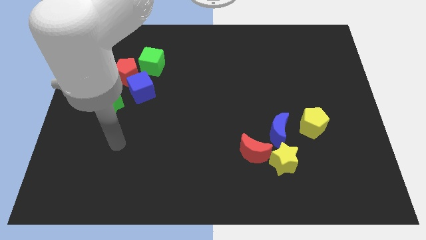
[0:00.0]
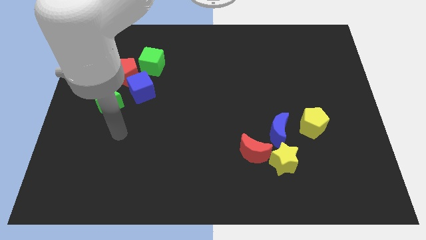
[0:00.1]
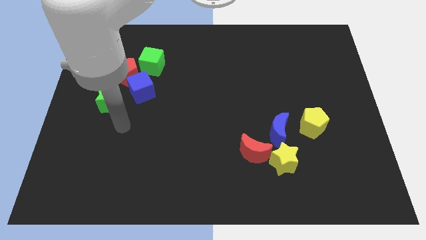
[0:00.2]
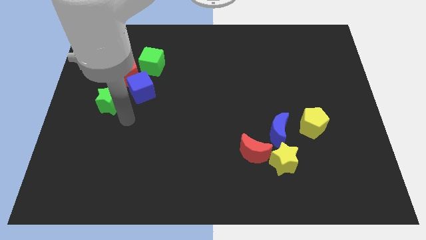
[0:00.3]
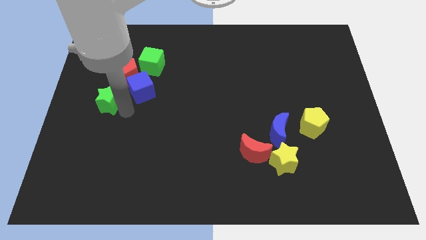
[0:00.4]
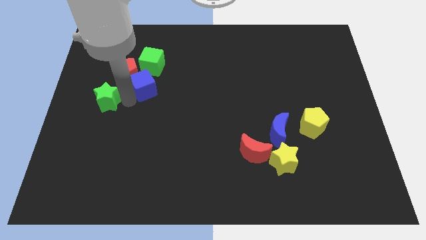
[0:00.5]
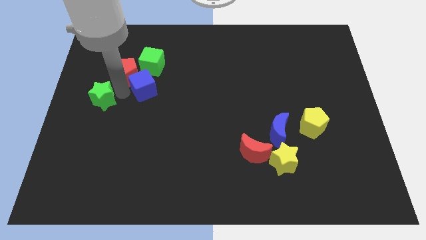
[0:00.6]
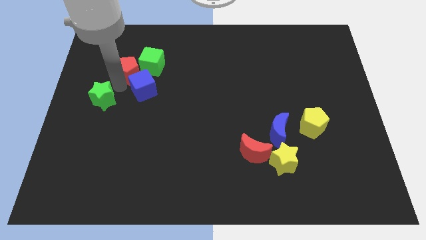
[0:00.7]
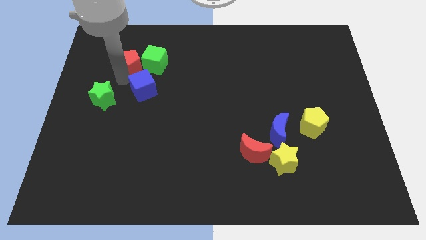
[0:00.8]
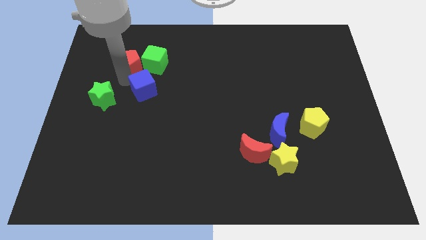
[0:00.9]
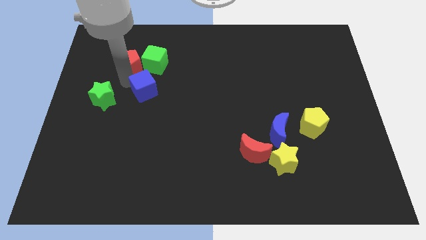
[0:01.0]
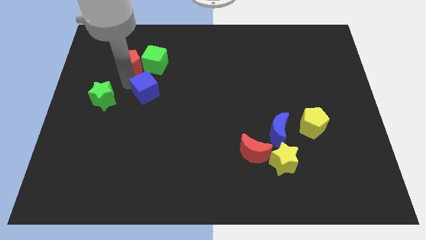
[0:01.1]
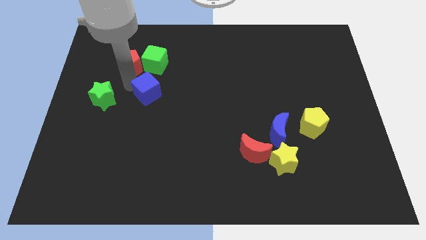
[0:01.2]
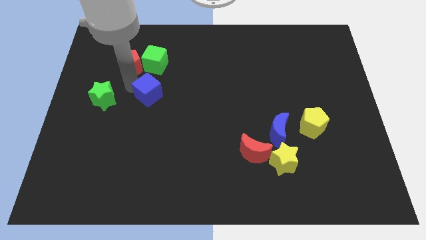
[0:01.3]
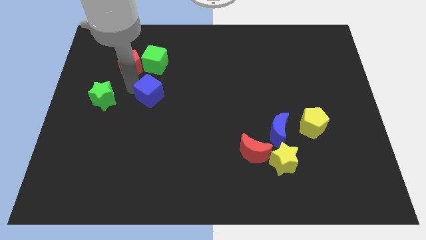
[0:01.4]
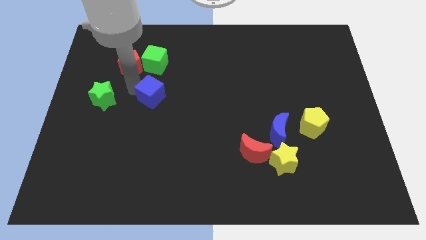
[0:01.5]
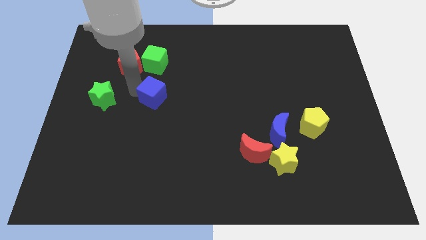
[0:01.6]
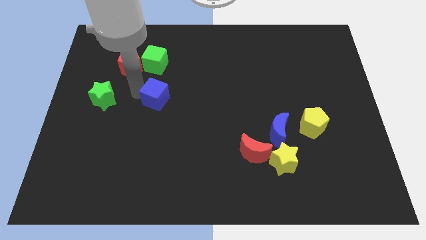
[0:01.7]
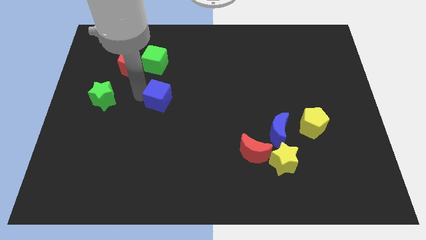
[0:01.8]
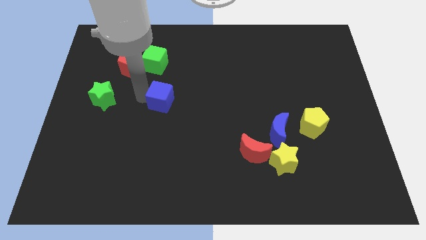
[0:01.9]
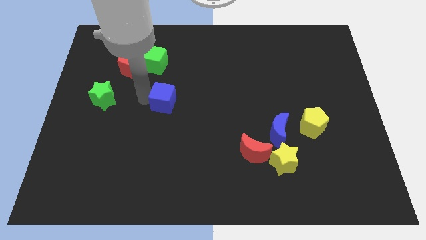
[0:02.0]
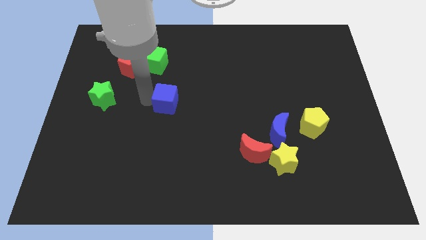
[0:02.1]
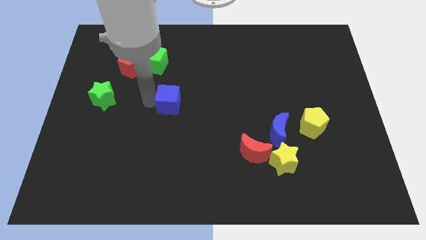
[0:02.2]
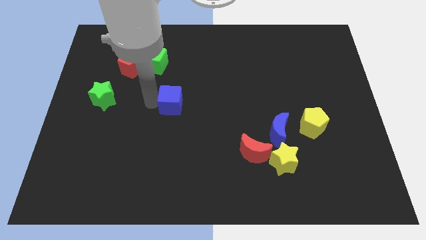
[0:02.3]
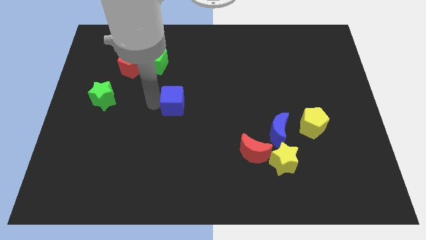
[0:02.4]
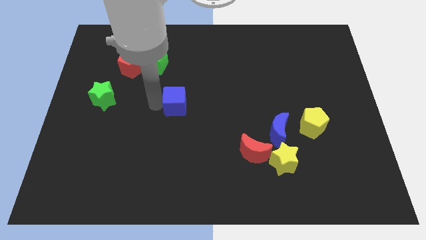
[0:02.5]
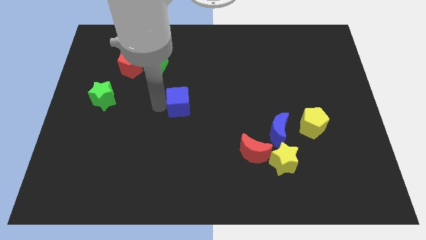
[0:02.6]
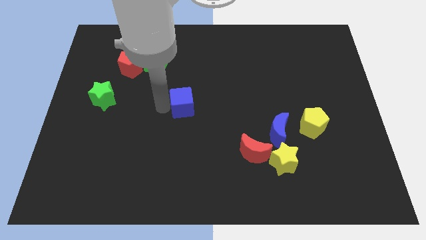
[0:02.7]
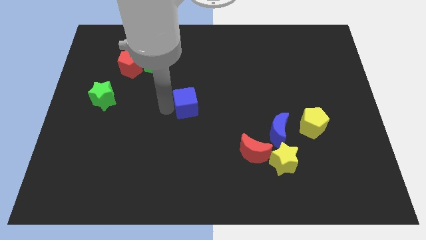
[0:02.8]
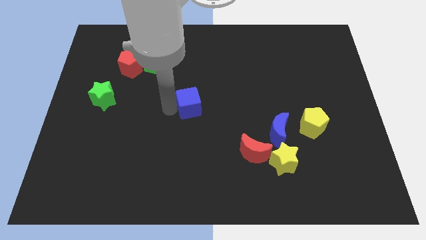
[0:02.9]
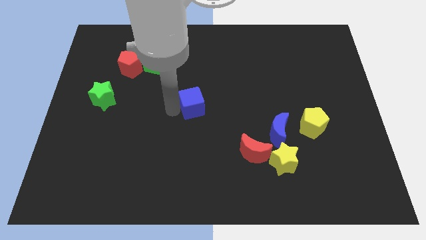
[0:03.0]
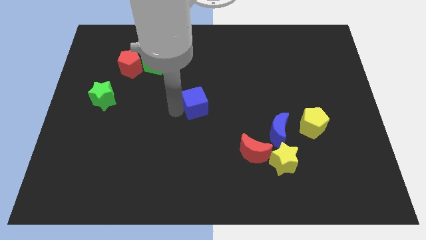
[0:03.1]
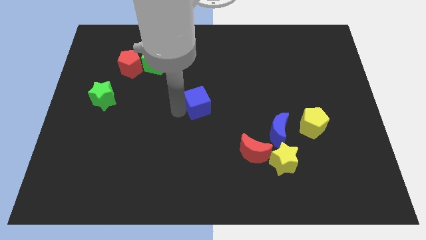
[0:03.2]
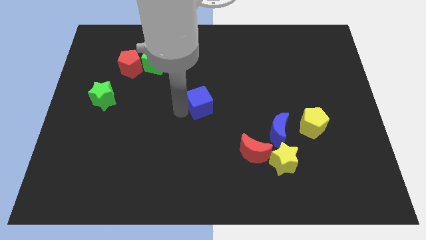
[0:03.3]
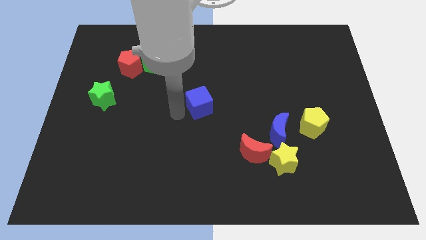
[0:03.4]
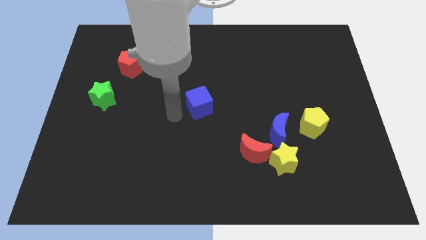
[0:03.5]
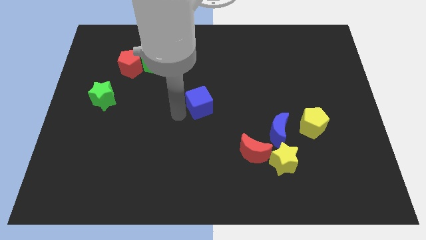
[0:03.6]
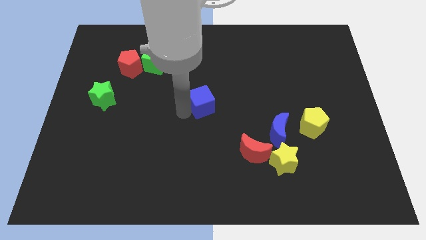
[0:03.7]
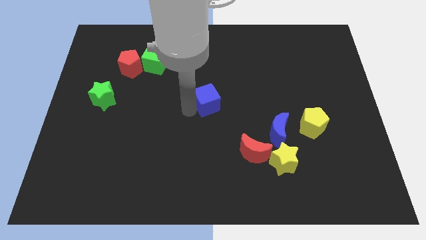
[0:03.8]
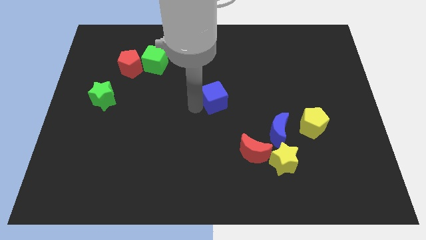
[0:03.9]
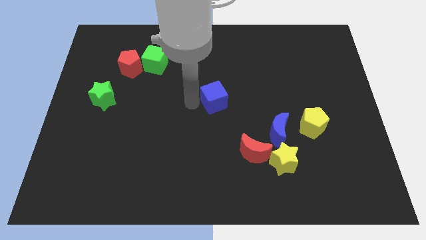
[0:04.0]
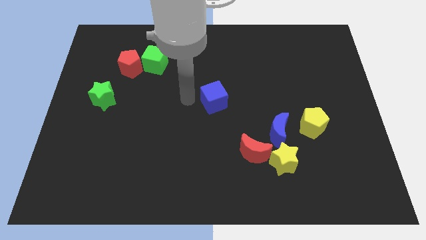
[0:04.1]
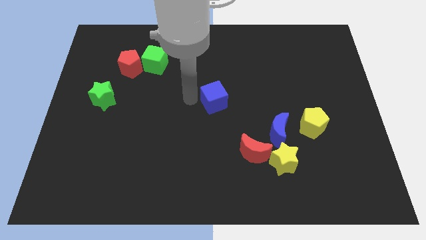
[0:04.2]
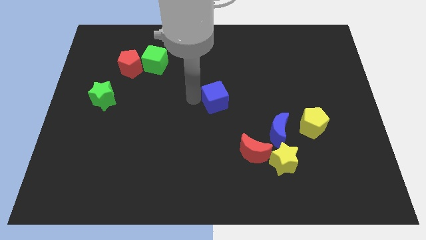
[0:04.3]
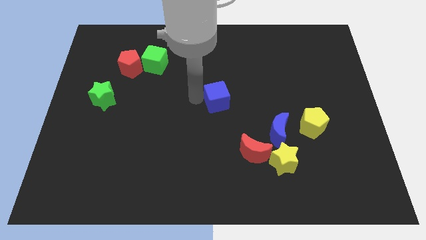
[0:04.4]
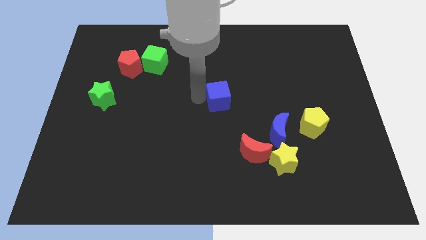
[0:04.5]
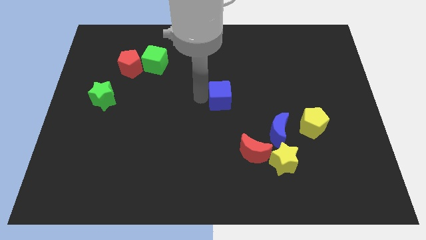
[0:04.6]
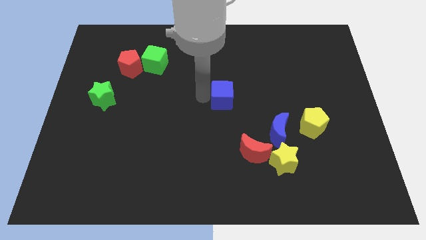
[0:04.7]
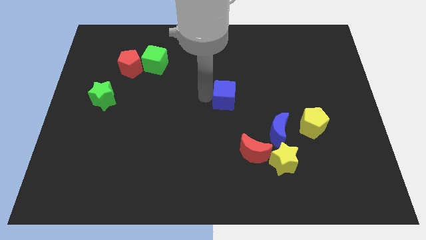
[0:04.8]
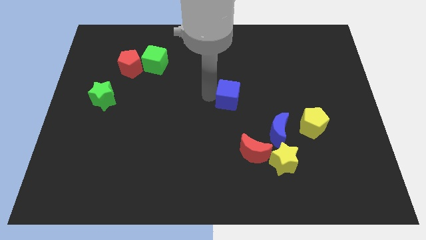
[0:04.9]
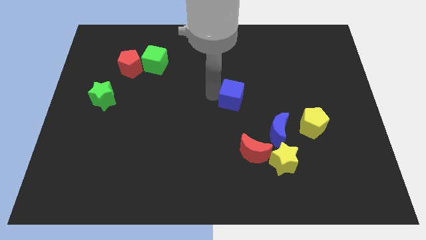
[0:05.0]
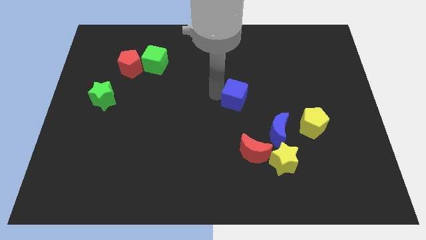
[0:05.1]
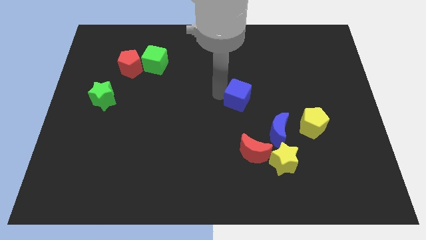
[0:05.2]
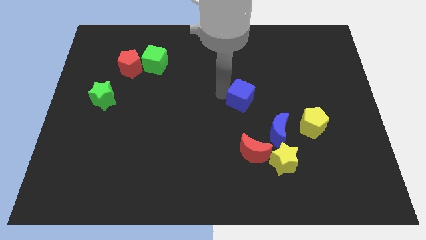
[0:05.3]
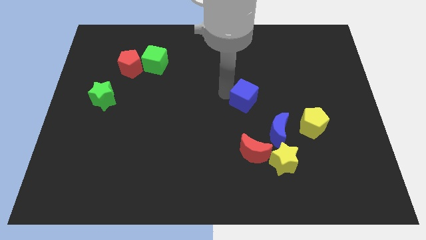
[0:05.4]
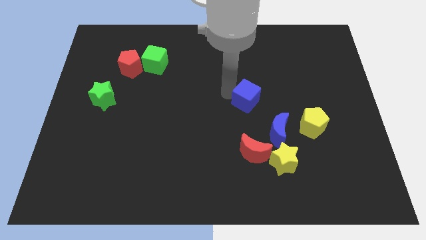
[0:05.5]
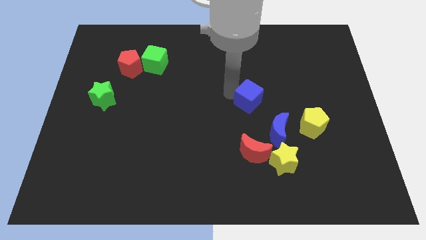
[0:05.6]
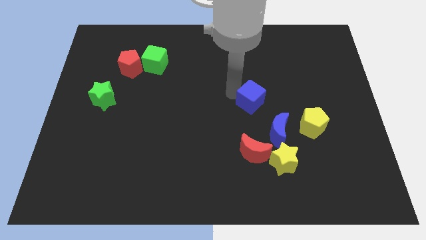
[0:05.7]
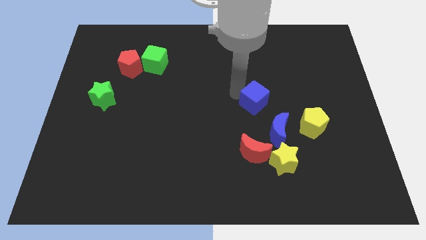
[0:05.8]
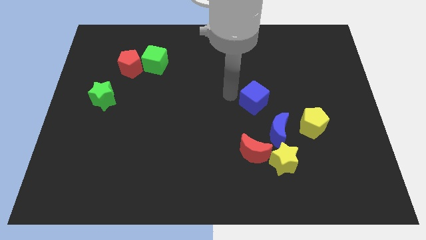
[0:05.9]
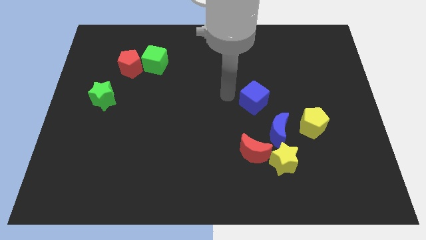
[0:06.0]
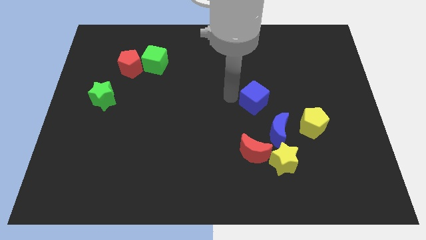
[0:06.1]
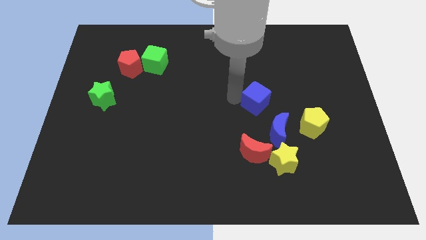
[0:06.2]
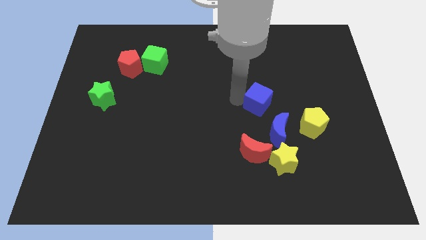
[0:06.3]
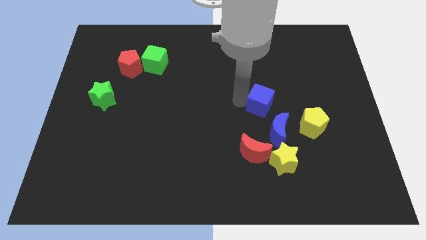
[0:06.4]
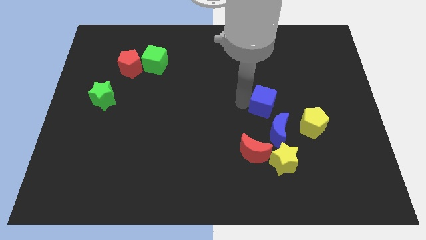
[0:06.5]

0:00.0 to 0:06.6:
put the blue cube to the top left side of the yellow pentagon

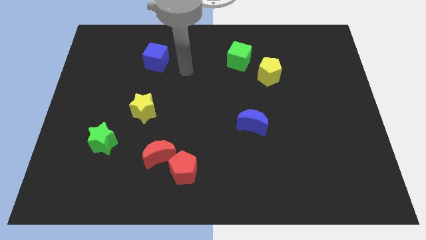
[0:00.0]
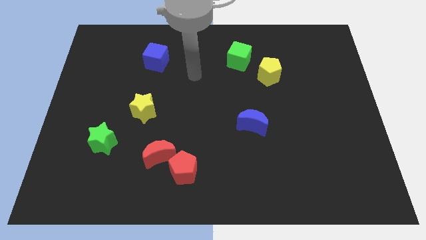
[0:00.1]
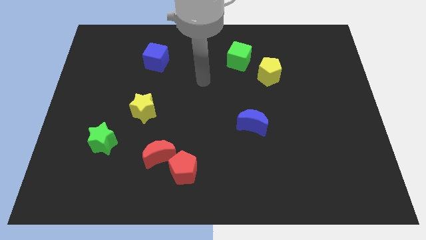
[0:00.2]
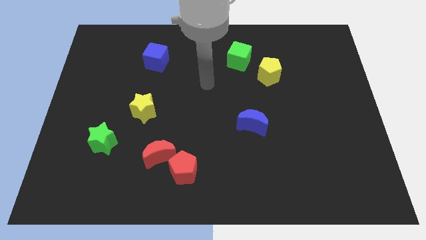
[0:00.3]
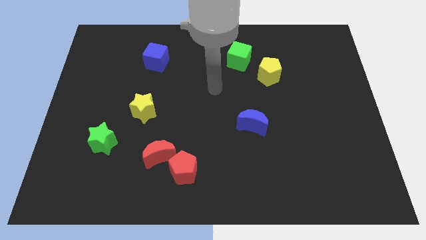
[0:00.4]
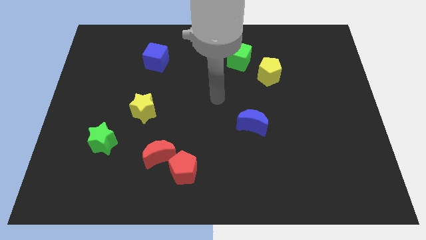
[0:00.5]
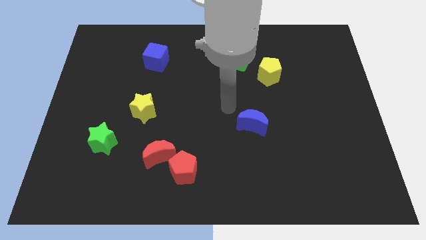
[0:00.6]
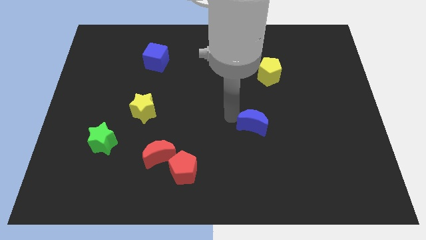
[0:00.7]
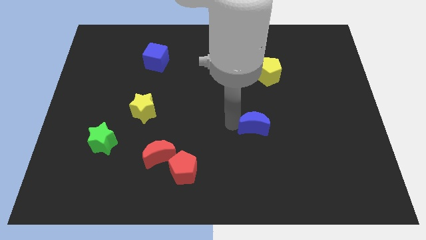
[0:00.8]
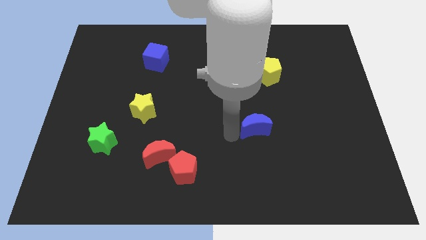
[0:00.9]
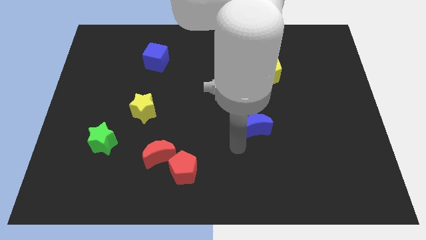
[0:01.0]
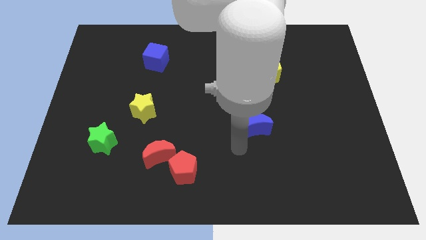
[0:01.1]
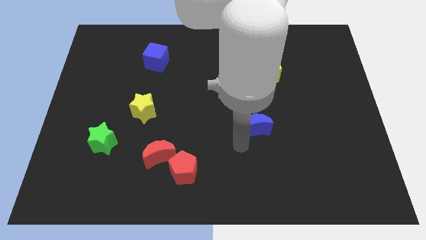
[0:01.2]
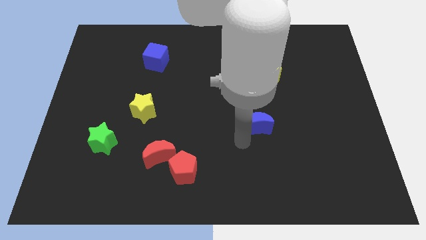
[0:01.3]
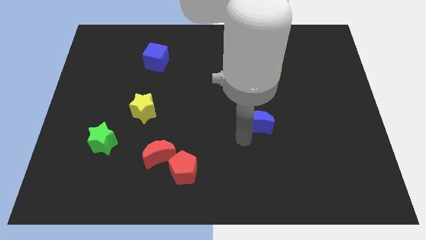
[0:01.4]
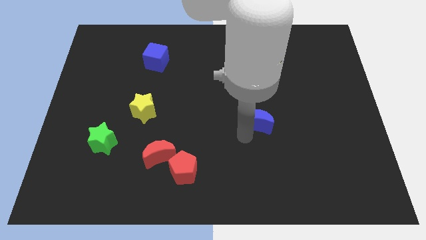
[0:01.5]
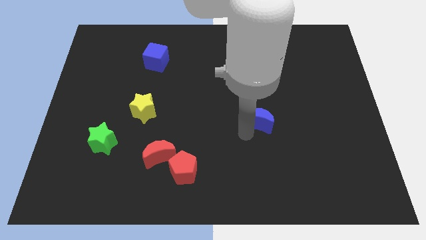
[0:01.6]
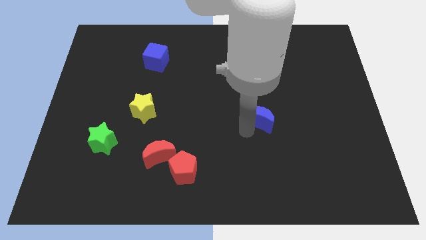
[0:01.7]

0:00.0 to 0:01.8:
move the blue moon to the bottom side of the yellow pentagon
